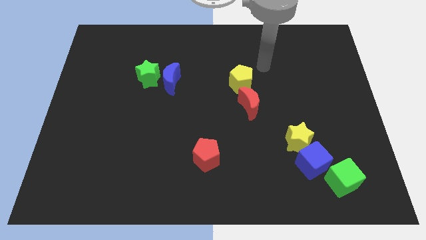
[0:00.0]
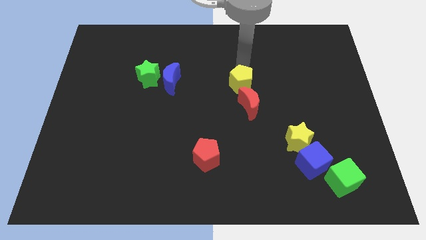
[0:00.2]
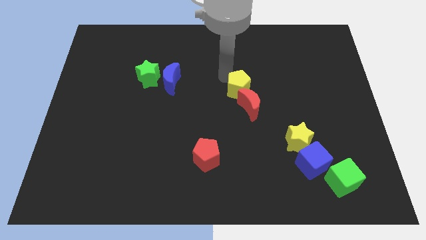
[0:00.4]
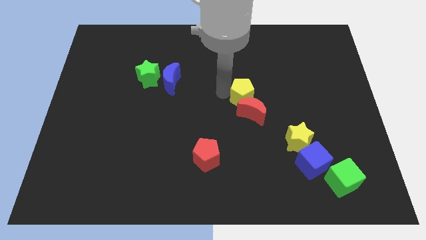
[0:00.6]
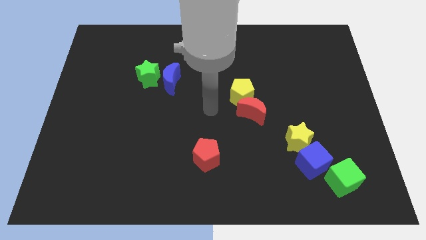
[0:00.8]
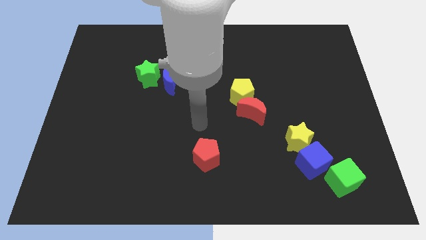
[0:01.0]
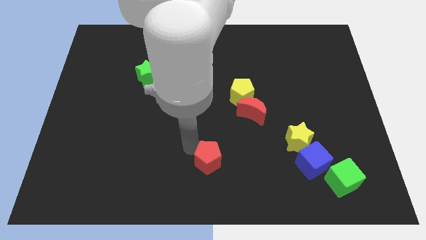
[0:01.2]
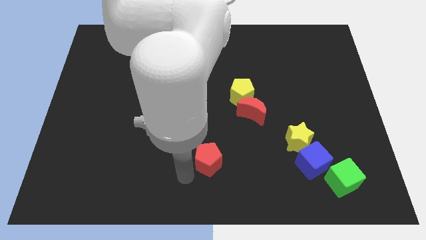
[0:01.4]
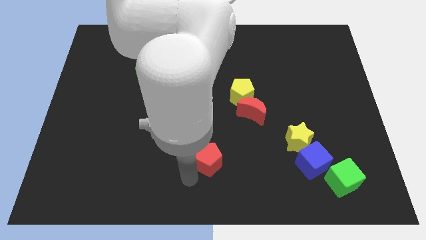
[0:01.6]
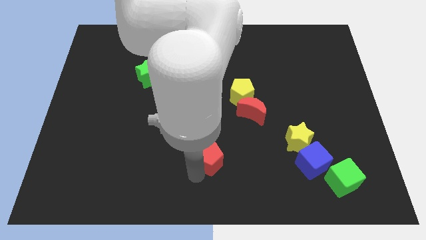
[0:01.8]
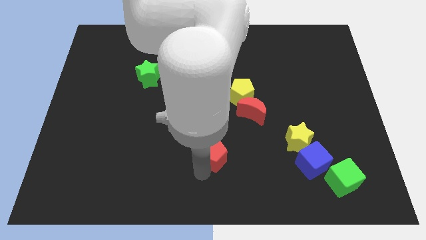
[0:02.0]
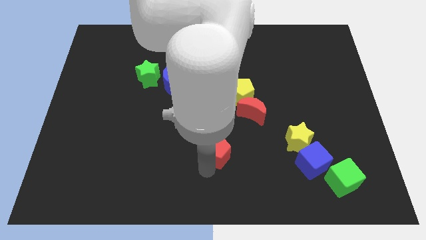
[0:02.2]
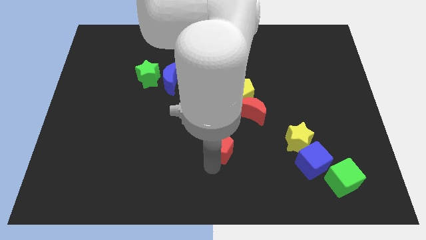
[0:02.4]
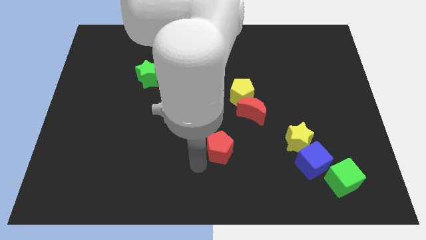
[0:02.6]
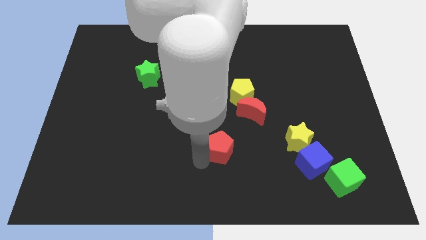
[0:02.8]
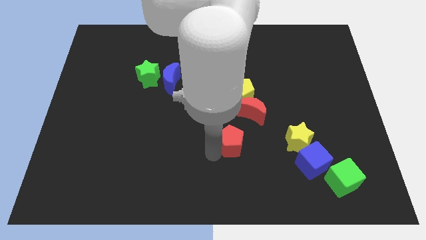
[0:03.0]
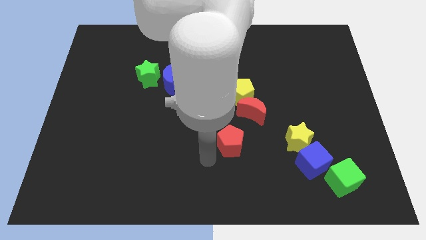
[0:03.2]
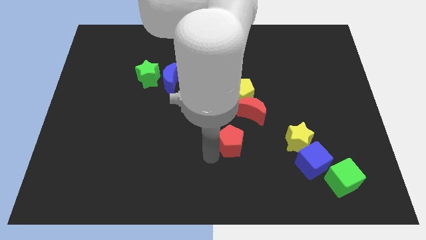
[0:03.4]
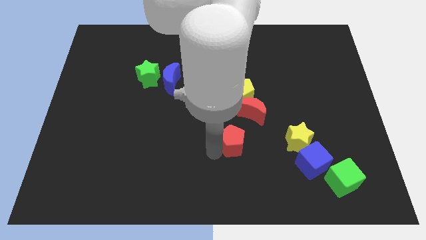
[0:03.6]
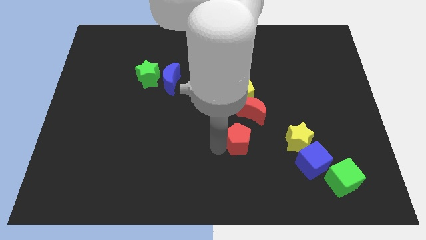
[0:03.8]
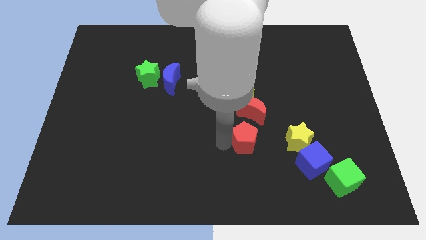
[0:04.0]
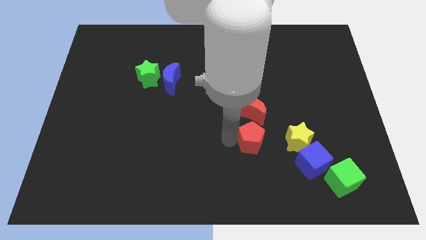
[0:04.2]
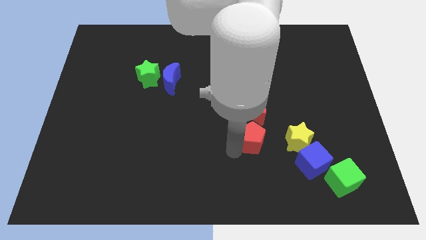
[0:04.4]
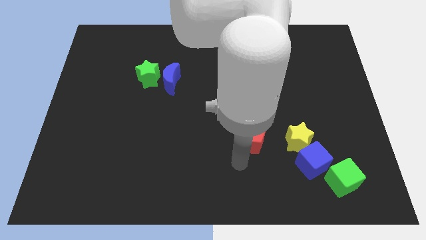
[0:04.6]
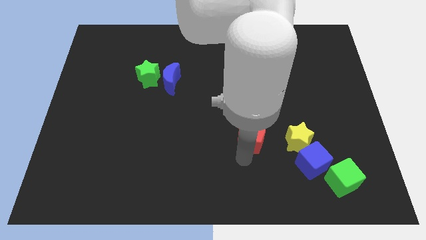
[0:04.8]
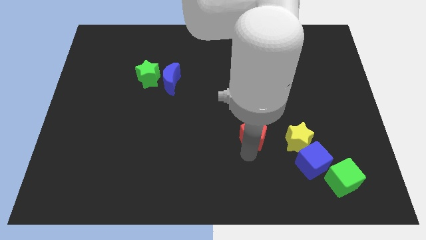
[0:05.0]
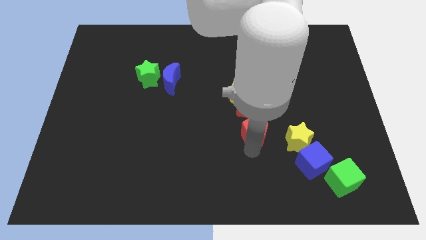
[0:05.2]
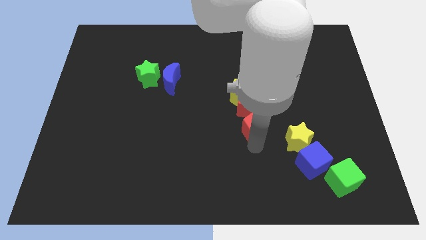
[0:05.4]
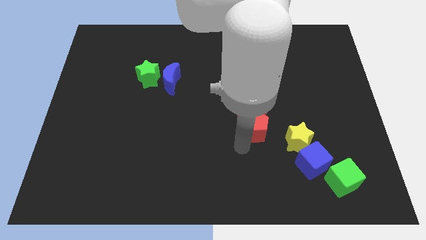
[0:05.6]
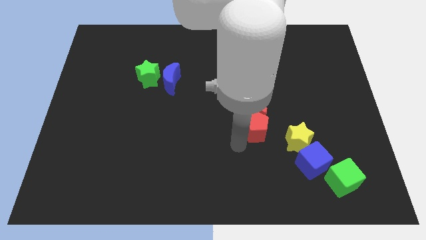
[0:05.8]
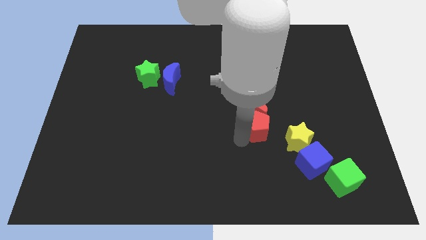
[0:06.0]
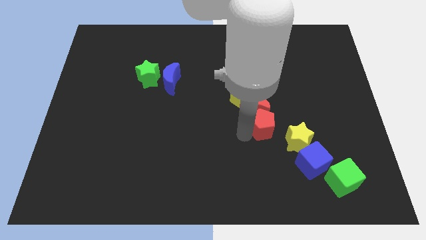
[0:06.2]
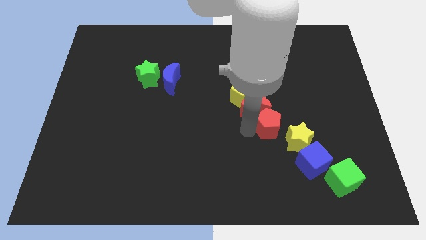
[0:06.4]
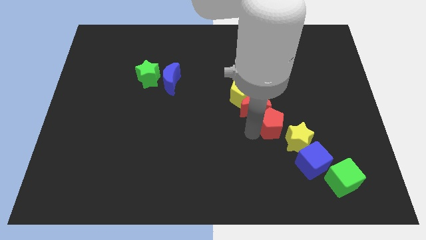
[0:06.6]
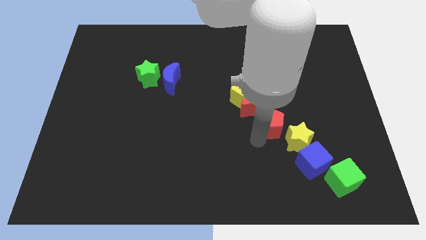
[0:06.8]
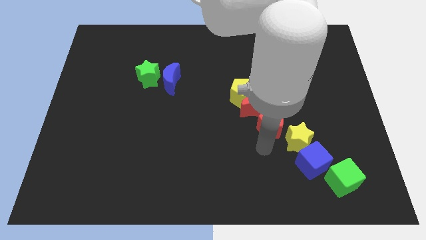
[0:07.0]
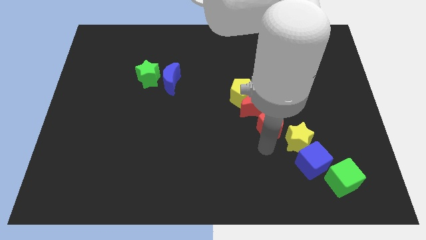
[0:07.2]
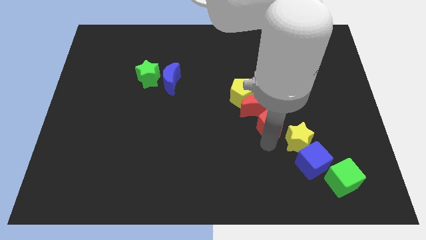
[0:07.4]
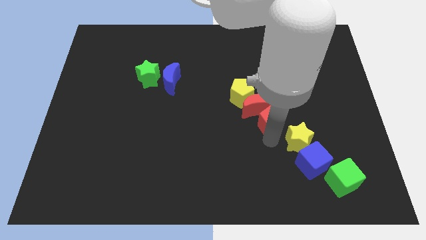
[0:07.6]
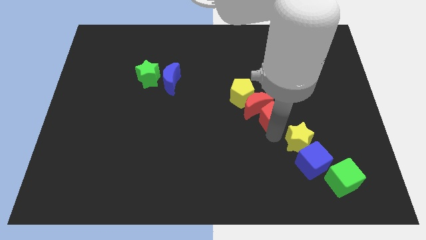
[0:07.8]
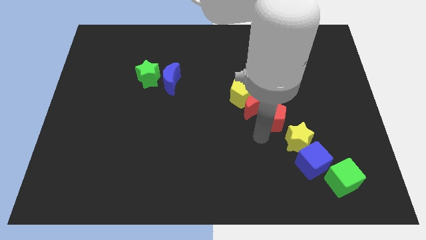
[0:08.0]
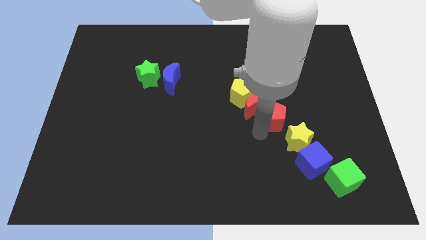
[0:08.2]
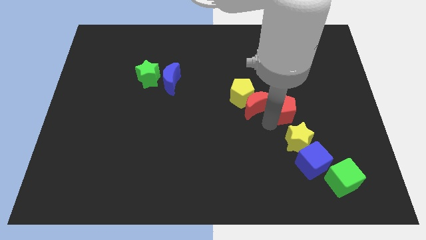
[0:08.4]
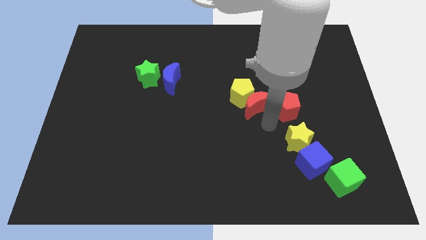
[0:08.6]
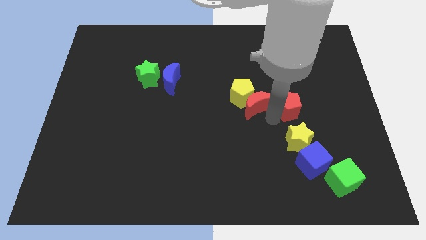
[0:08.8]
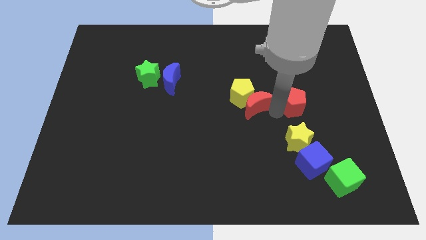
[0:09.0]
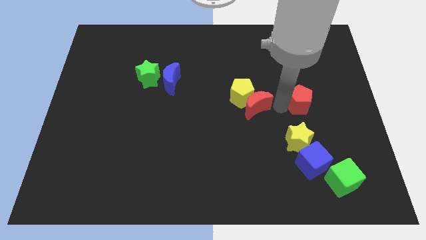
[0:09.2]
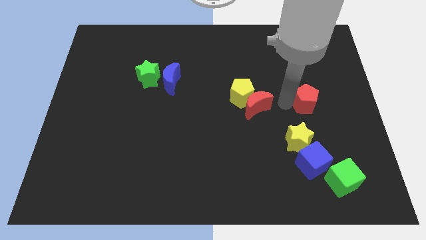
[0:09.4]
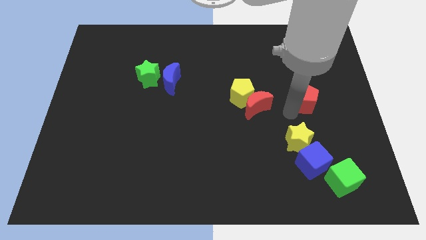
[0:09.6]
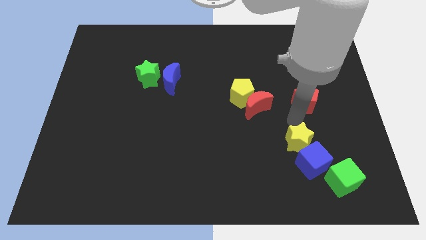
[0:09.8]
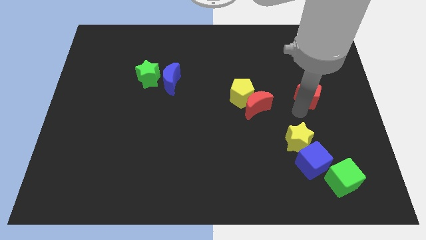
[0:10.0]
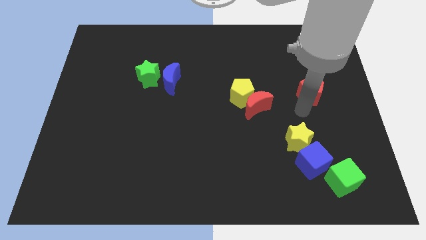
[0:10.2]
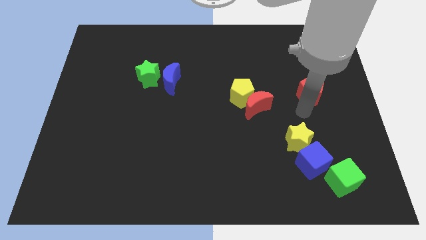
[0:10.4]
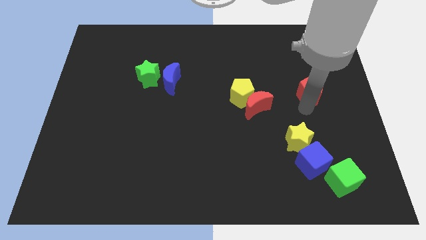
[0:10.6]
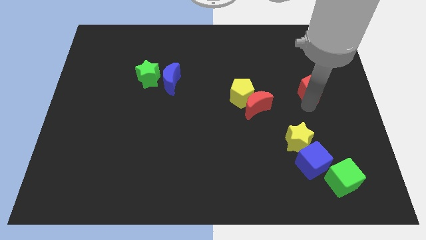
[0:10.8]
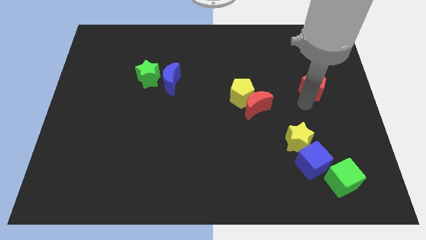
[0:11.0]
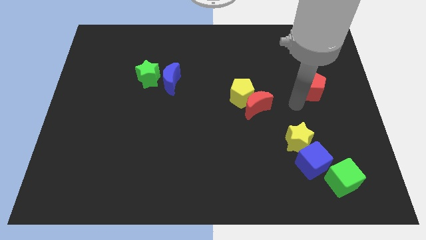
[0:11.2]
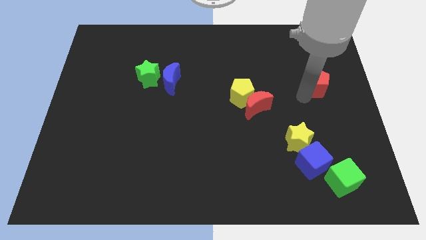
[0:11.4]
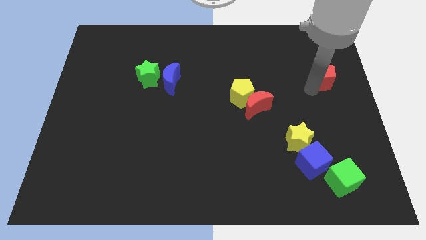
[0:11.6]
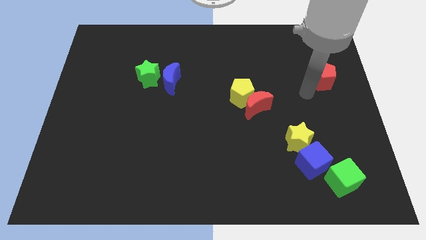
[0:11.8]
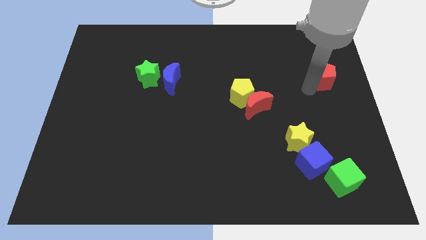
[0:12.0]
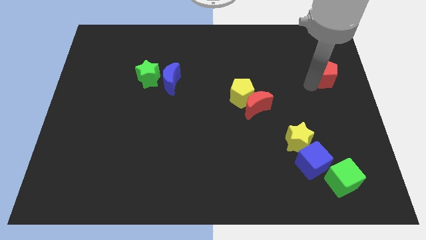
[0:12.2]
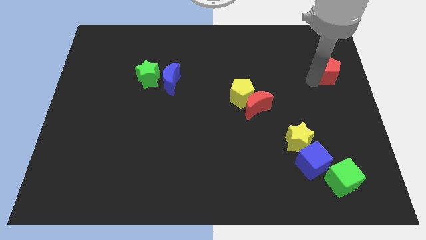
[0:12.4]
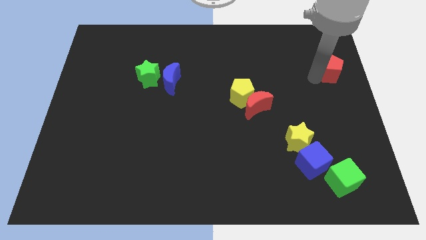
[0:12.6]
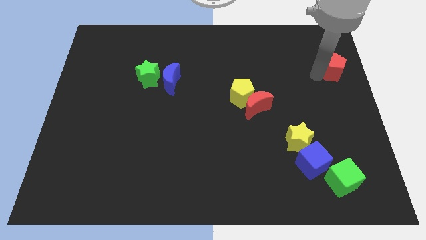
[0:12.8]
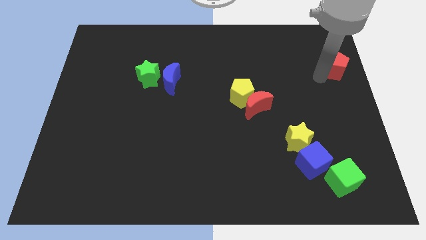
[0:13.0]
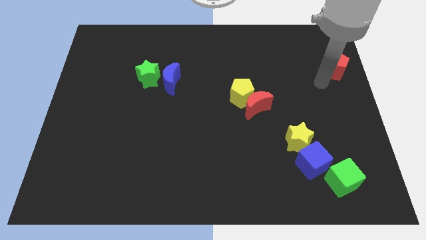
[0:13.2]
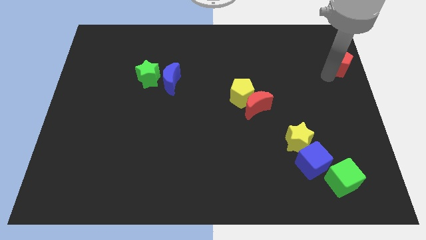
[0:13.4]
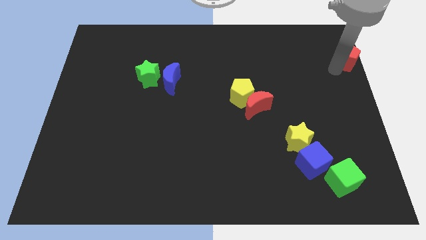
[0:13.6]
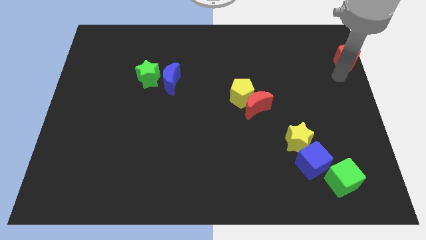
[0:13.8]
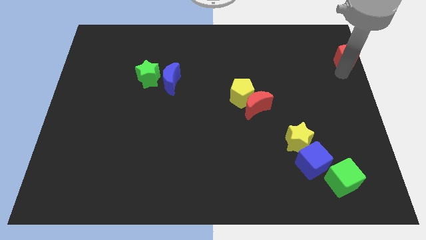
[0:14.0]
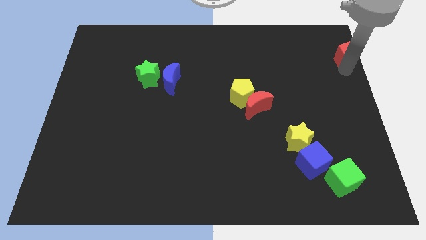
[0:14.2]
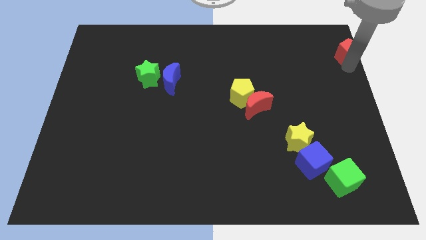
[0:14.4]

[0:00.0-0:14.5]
move the red pentagon to the top right corner
